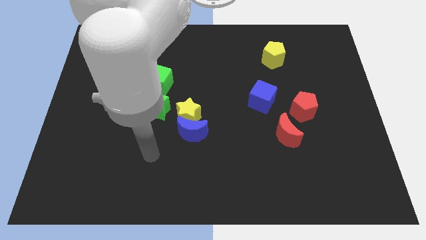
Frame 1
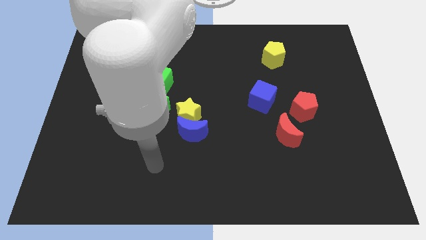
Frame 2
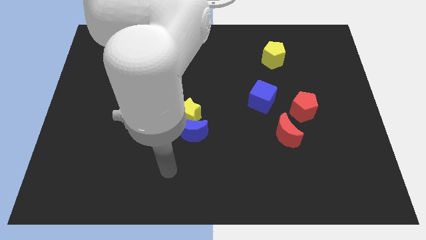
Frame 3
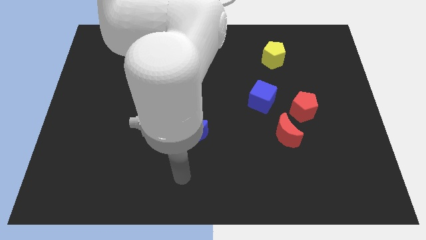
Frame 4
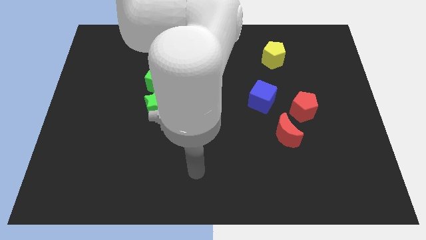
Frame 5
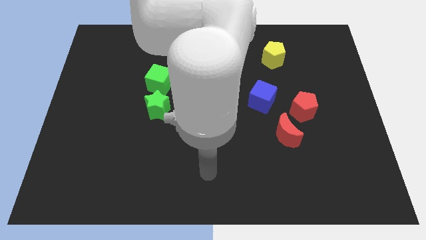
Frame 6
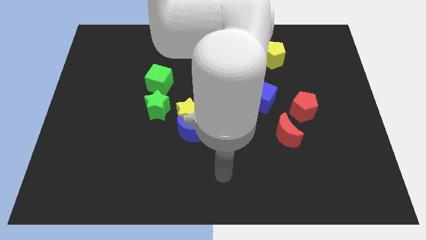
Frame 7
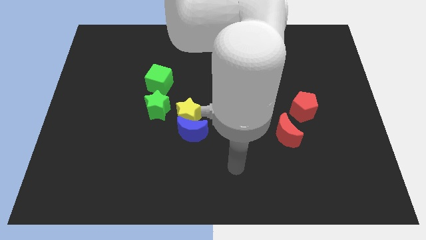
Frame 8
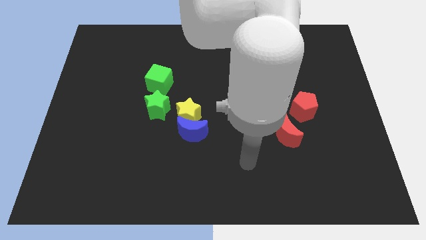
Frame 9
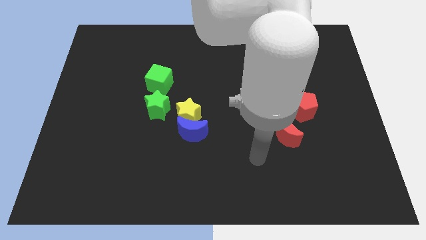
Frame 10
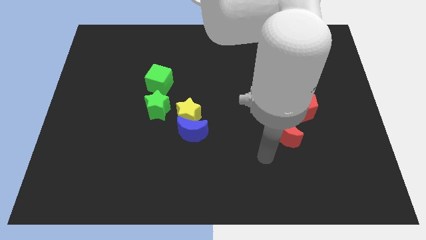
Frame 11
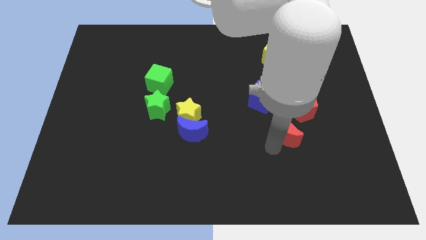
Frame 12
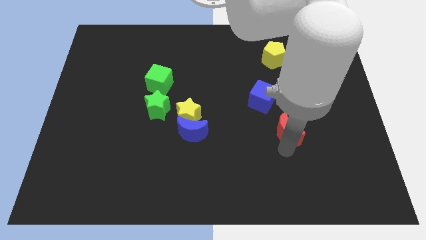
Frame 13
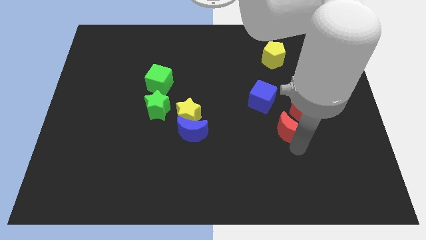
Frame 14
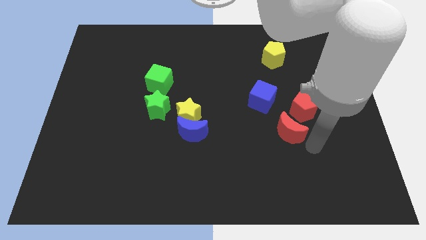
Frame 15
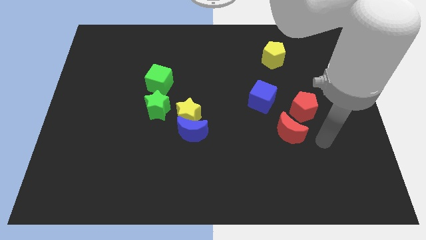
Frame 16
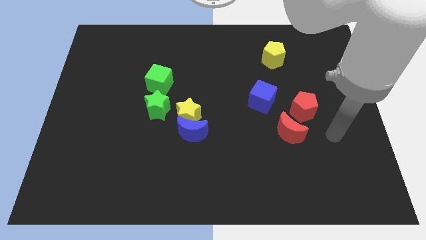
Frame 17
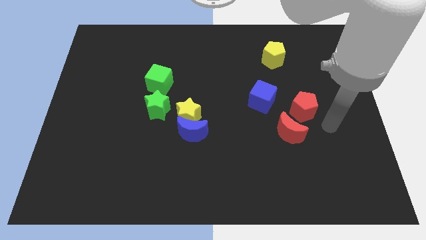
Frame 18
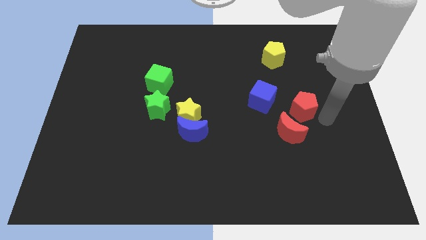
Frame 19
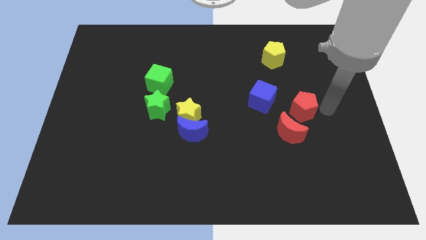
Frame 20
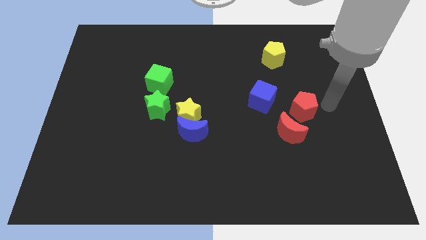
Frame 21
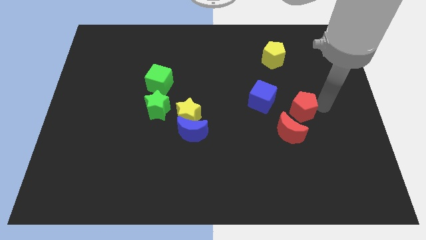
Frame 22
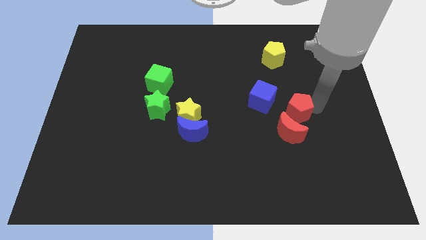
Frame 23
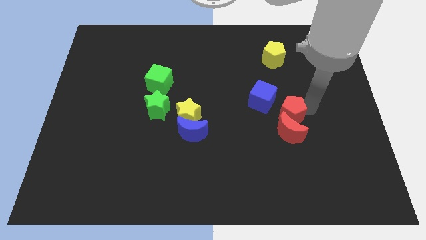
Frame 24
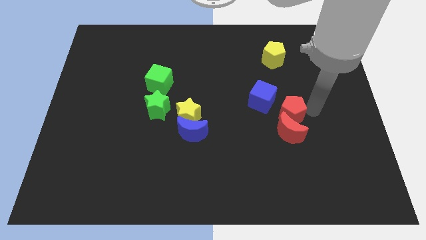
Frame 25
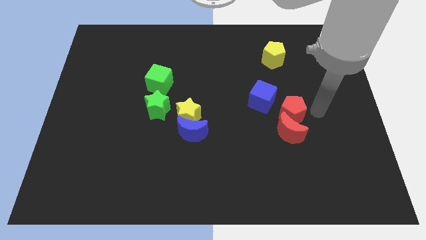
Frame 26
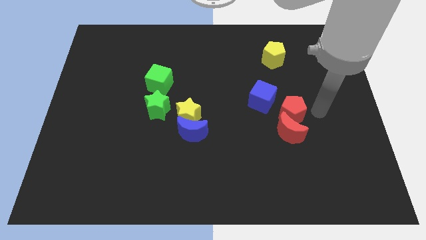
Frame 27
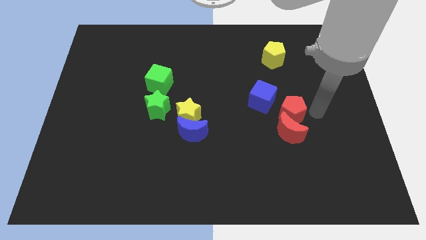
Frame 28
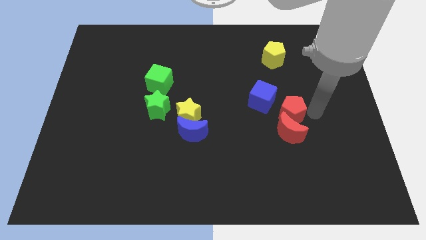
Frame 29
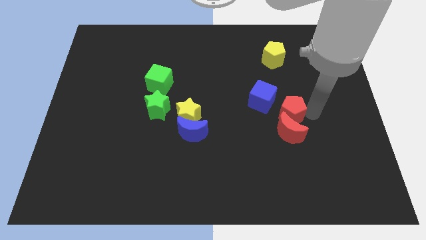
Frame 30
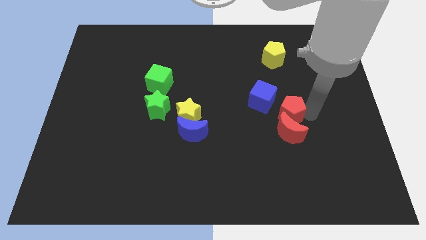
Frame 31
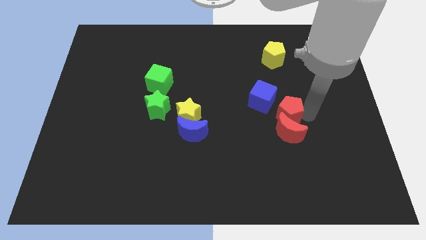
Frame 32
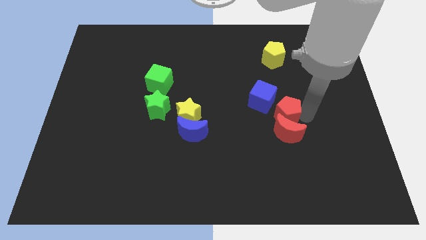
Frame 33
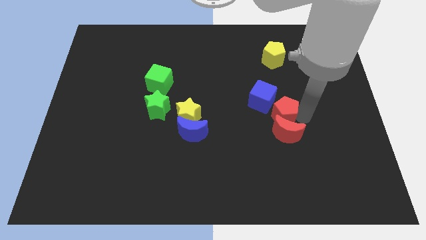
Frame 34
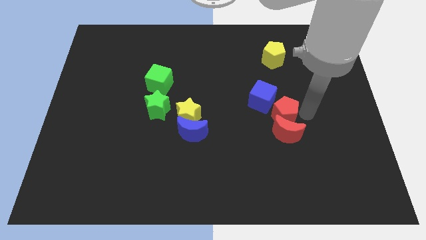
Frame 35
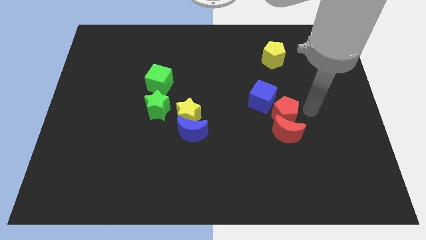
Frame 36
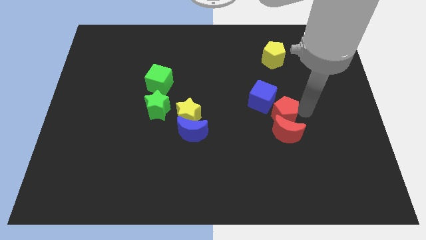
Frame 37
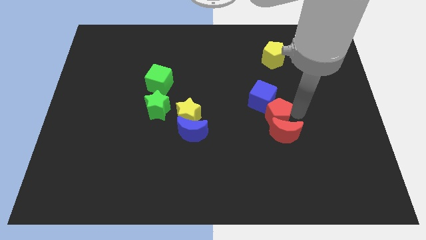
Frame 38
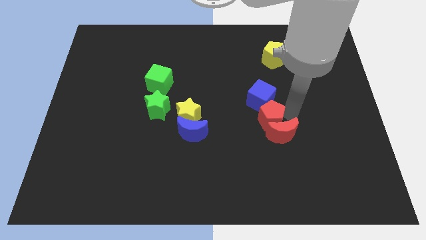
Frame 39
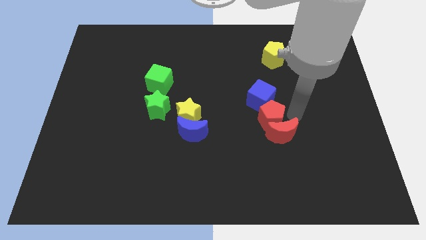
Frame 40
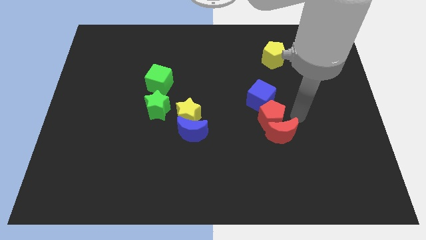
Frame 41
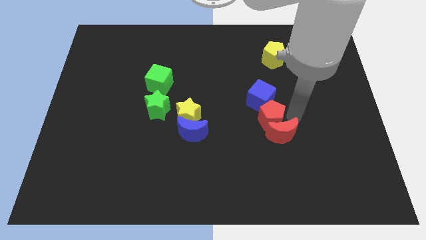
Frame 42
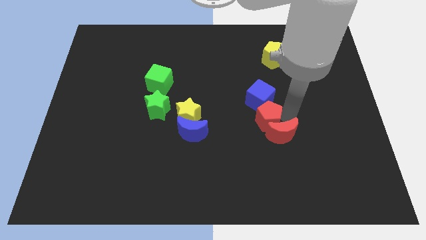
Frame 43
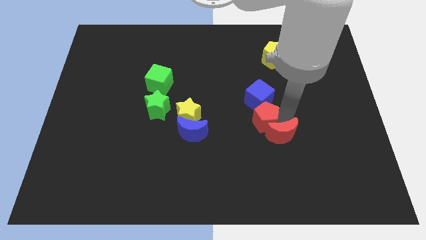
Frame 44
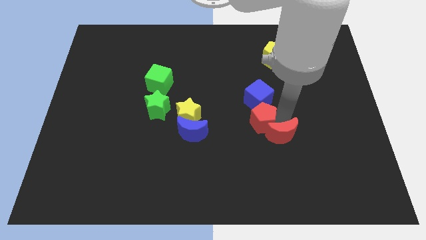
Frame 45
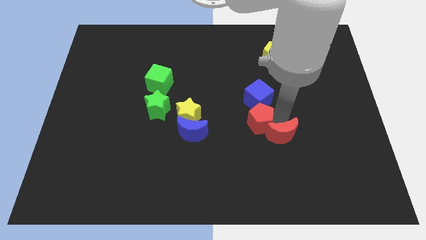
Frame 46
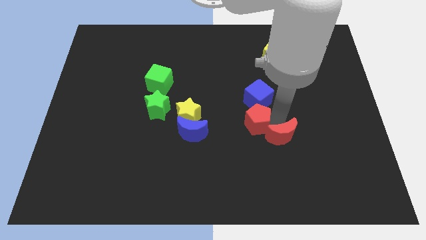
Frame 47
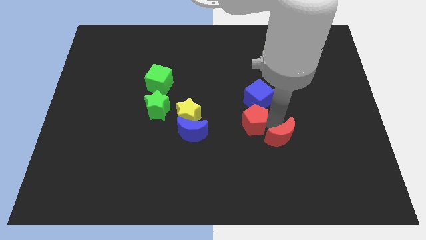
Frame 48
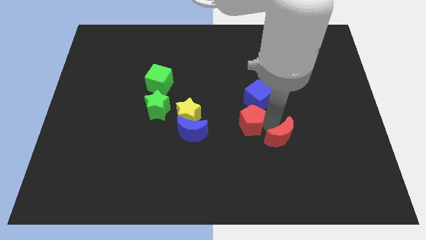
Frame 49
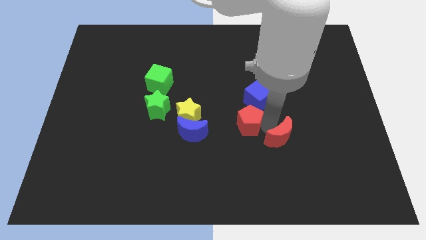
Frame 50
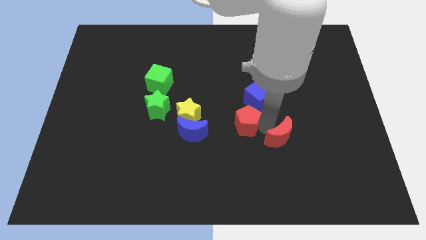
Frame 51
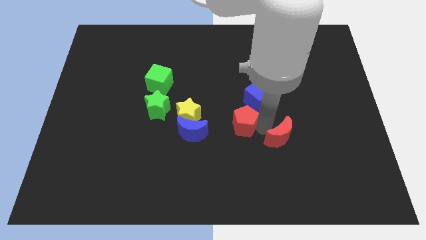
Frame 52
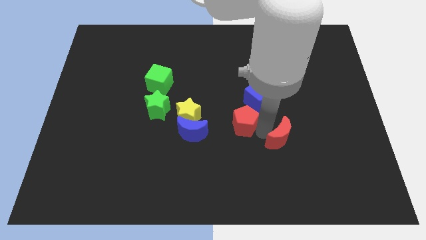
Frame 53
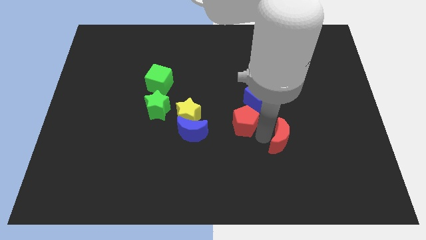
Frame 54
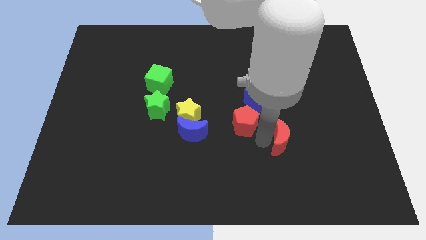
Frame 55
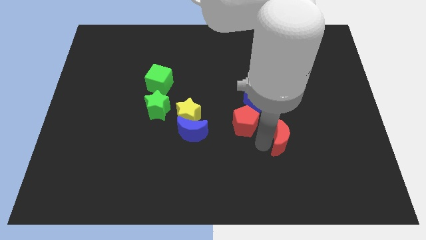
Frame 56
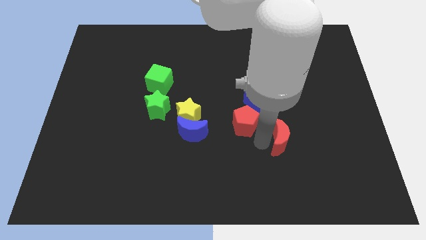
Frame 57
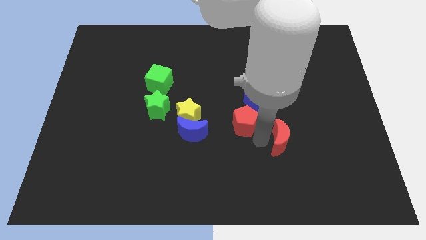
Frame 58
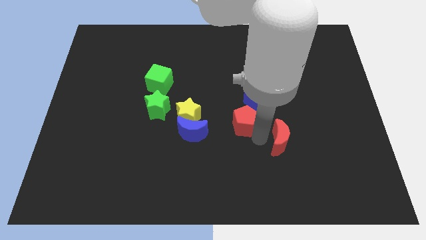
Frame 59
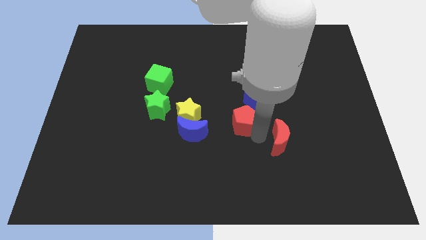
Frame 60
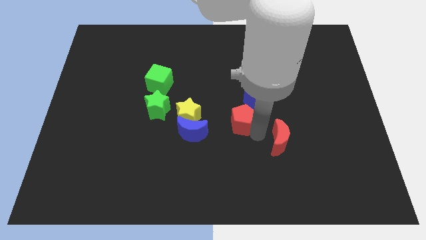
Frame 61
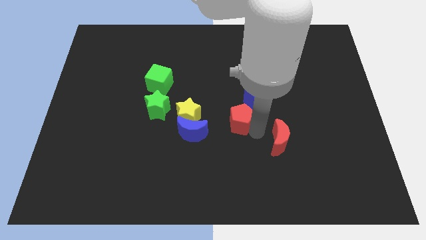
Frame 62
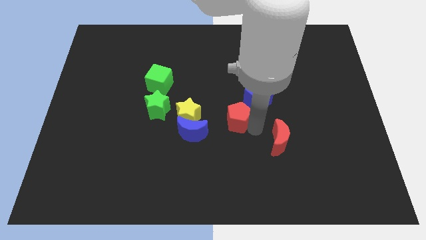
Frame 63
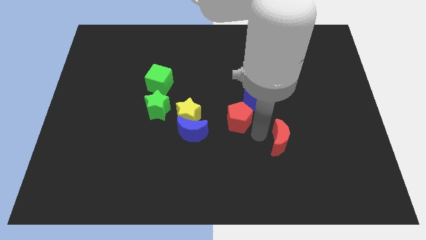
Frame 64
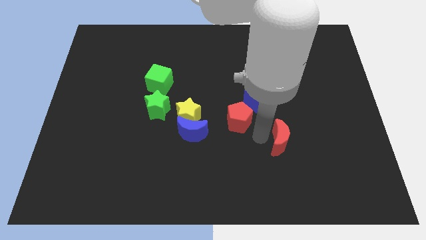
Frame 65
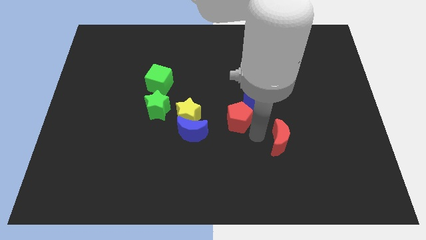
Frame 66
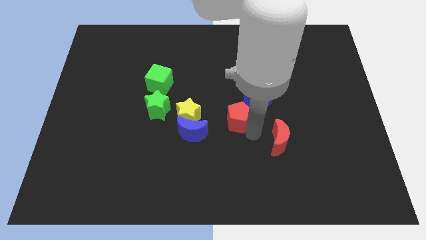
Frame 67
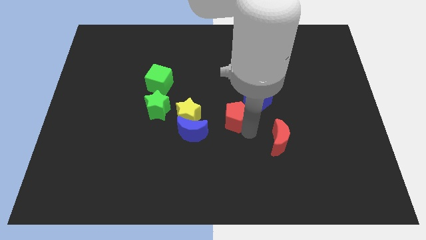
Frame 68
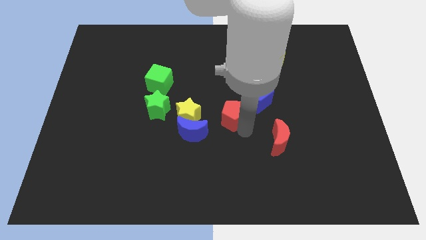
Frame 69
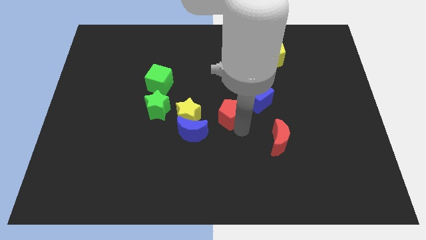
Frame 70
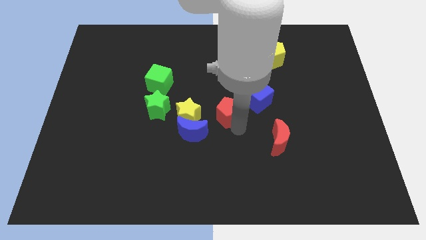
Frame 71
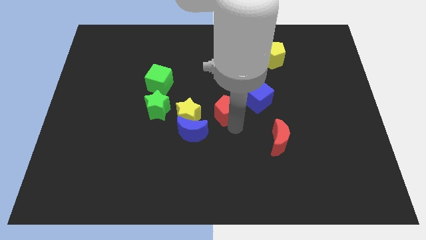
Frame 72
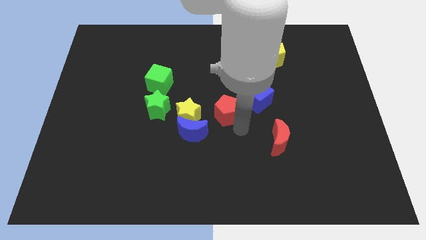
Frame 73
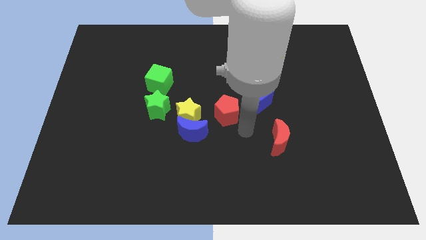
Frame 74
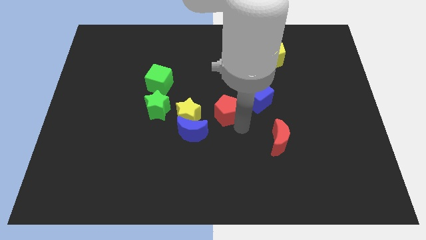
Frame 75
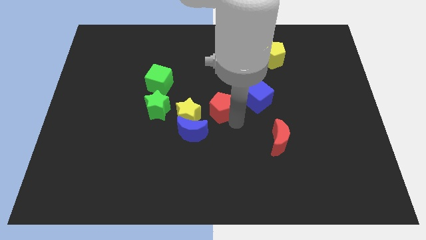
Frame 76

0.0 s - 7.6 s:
move the red pentagon to the top right of the yellow star
